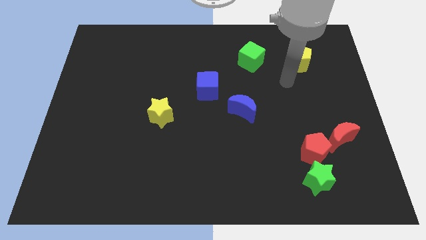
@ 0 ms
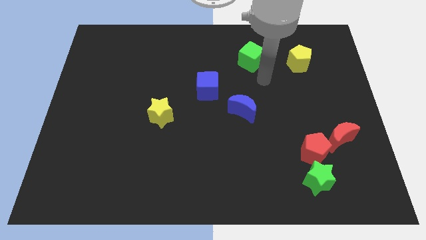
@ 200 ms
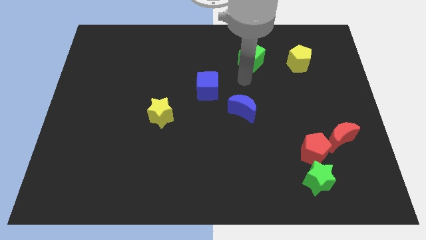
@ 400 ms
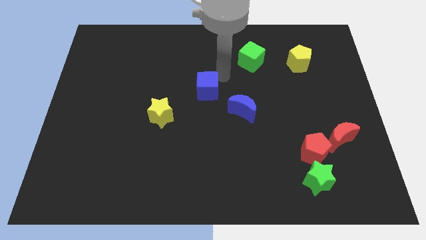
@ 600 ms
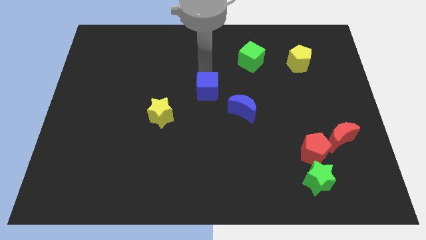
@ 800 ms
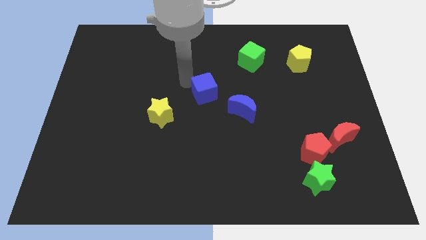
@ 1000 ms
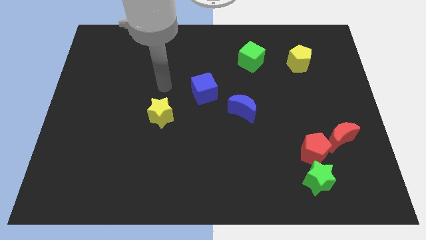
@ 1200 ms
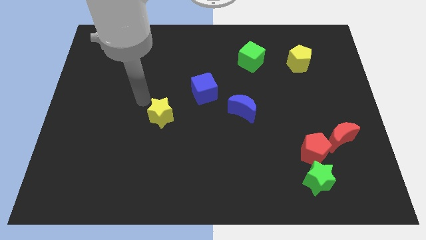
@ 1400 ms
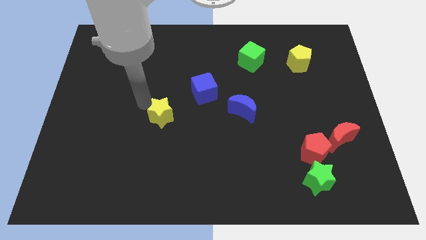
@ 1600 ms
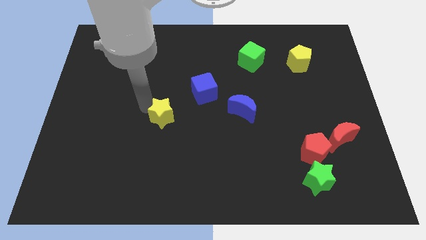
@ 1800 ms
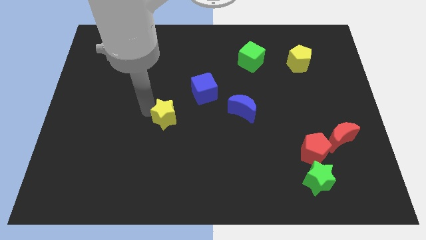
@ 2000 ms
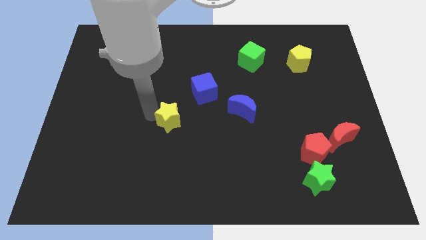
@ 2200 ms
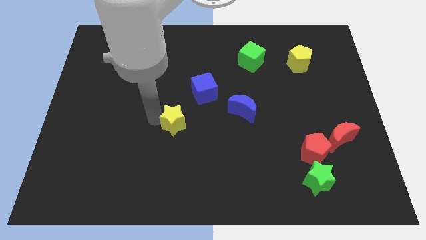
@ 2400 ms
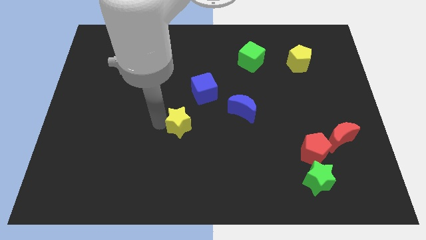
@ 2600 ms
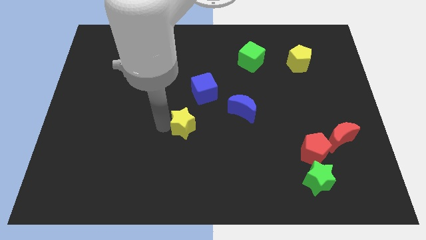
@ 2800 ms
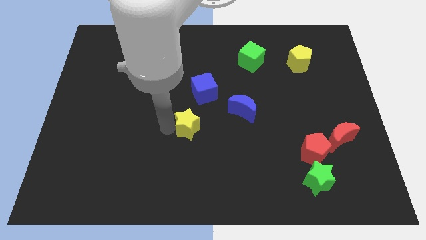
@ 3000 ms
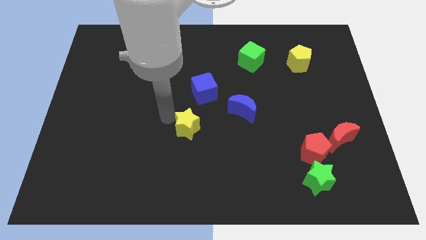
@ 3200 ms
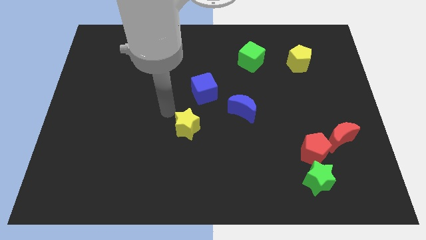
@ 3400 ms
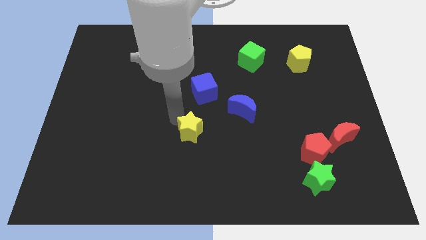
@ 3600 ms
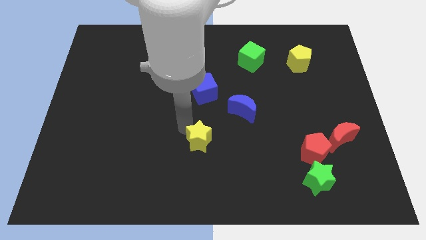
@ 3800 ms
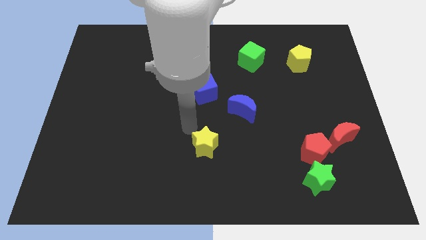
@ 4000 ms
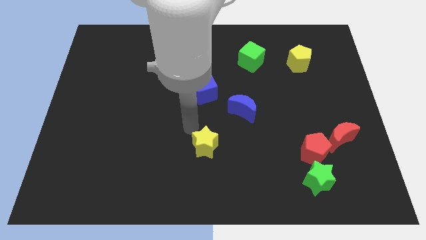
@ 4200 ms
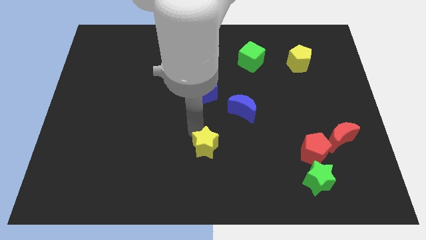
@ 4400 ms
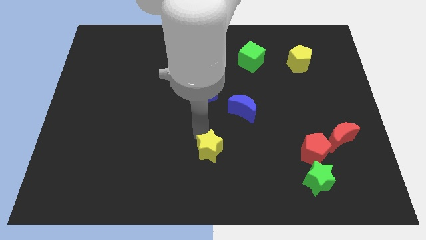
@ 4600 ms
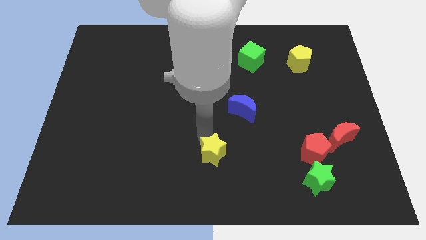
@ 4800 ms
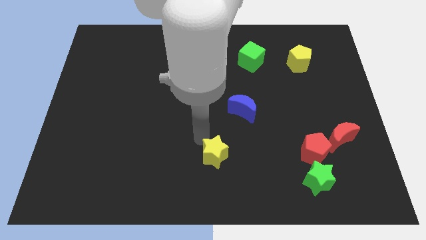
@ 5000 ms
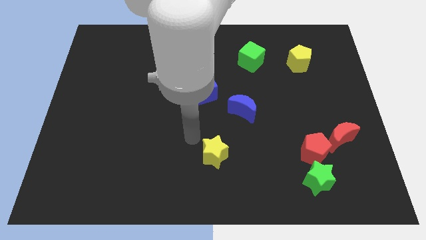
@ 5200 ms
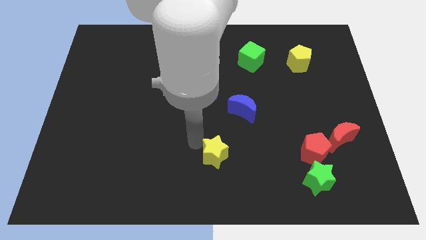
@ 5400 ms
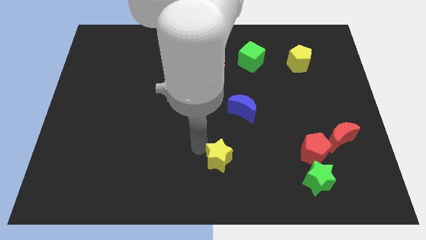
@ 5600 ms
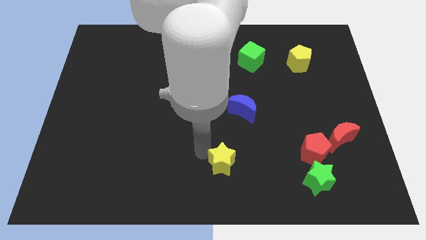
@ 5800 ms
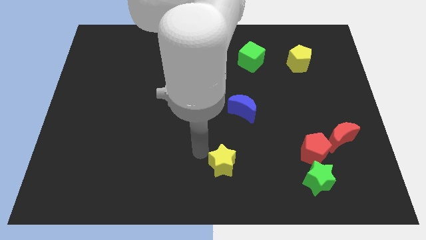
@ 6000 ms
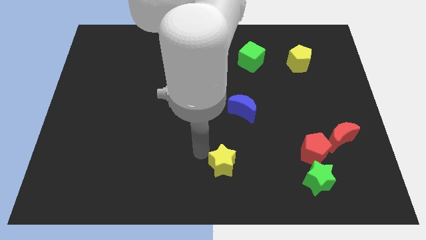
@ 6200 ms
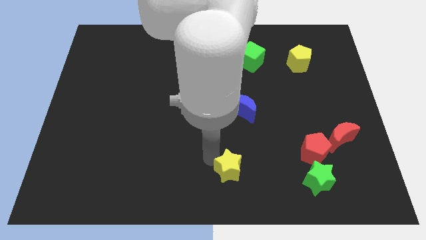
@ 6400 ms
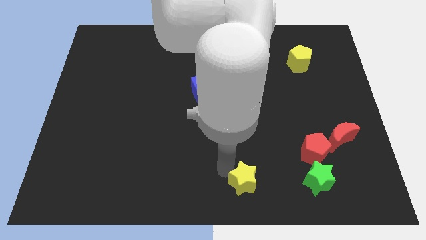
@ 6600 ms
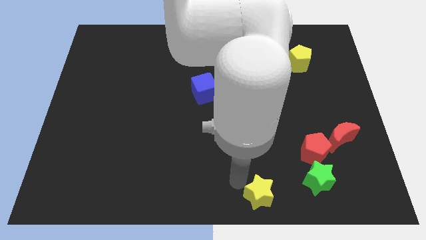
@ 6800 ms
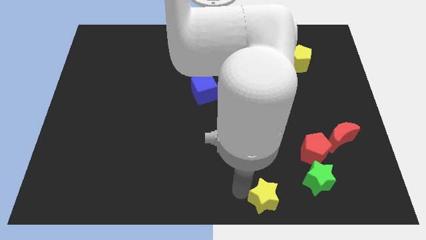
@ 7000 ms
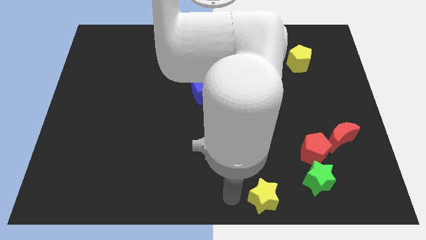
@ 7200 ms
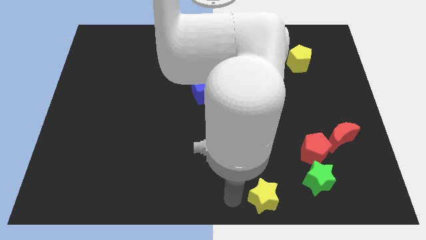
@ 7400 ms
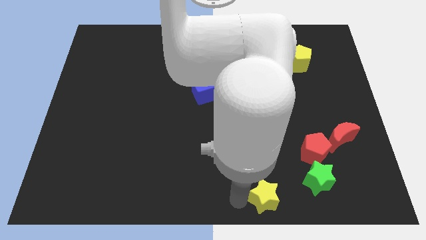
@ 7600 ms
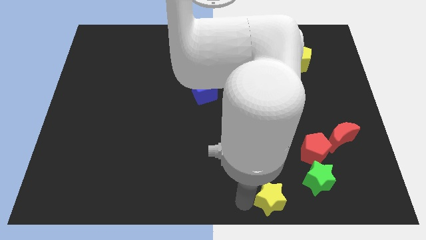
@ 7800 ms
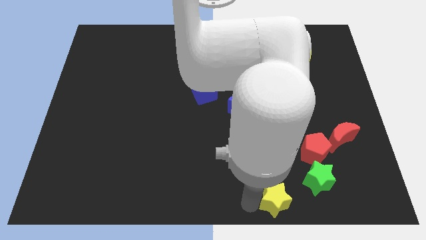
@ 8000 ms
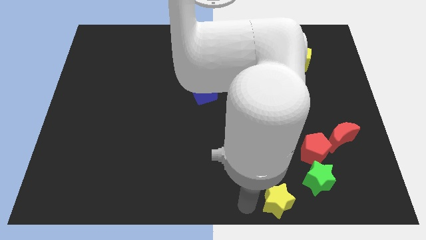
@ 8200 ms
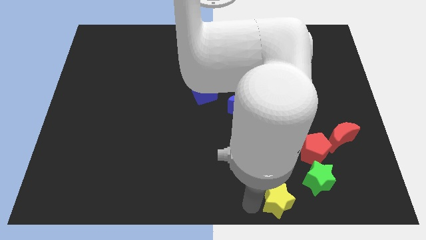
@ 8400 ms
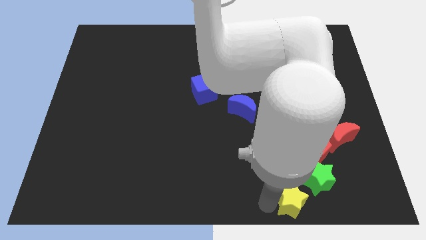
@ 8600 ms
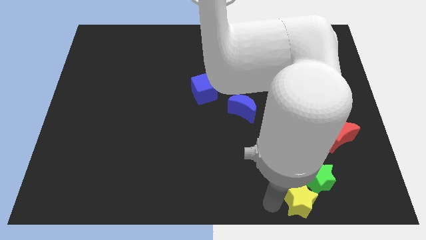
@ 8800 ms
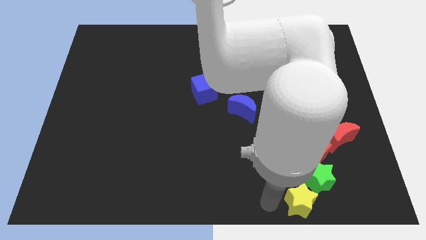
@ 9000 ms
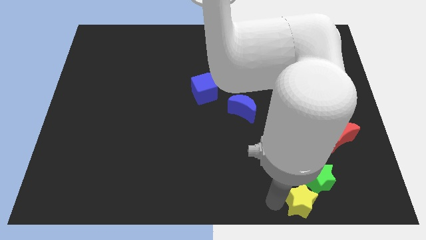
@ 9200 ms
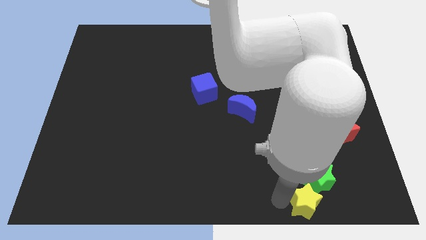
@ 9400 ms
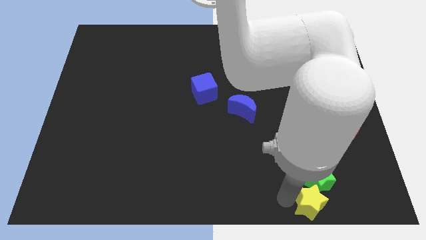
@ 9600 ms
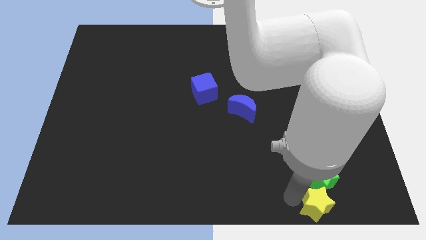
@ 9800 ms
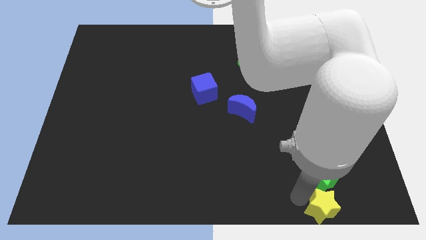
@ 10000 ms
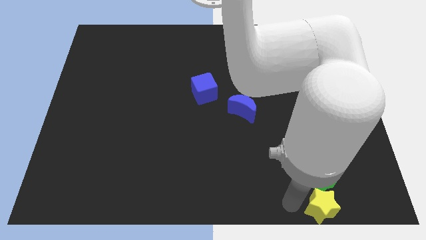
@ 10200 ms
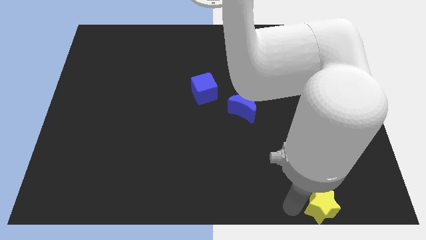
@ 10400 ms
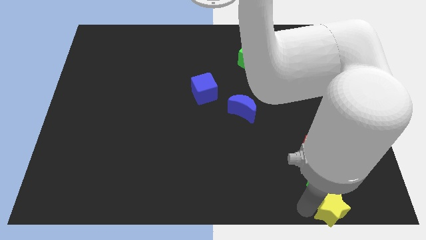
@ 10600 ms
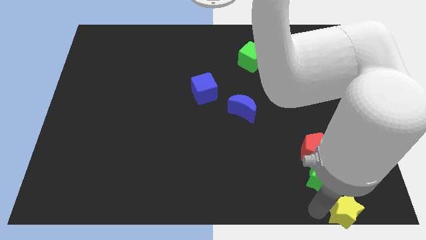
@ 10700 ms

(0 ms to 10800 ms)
put the yellow star to the bottom right corner

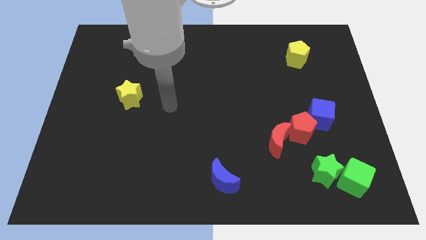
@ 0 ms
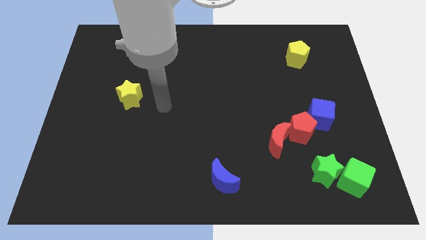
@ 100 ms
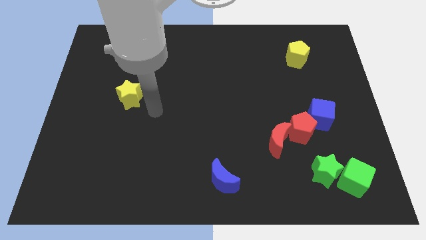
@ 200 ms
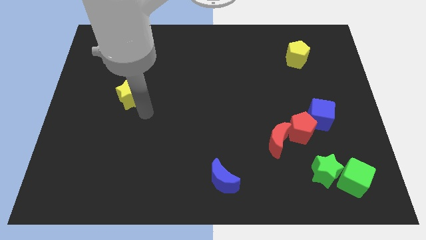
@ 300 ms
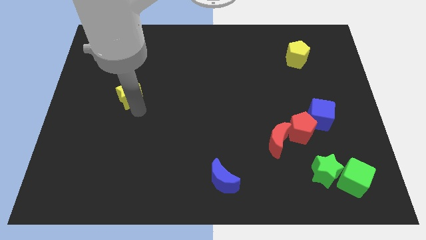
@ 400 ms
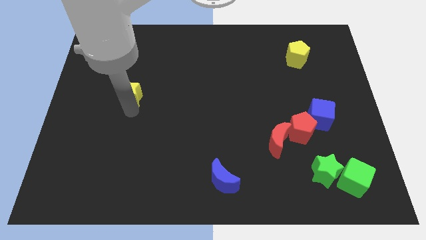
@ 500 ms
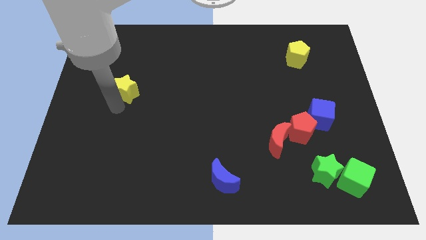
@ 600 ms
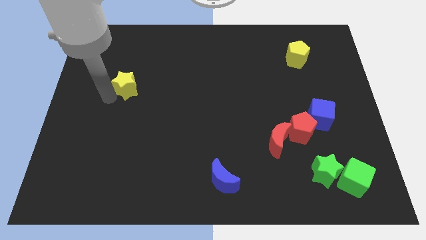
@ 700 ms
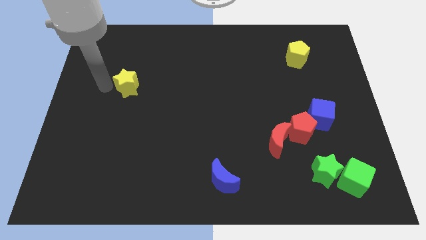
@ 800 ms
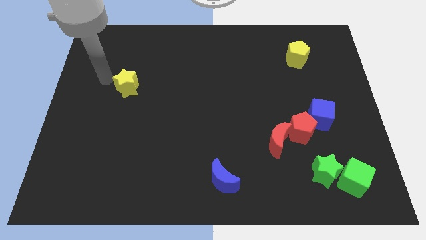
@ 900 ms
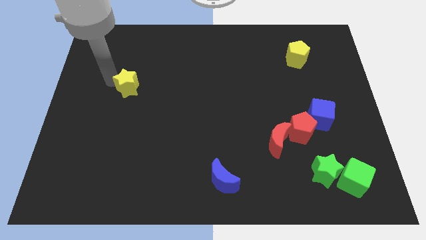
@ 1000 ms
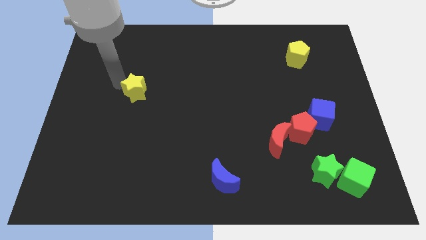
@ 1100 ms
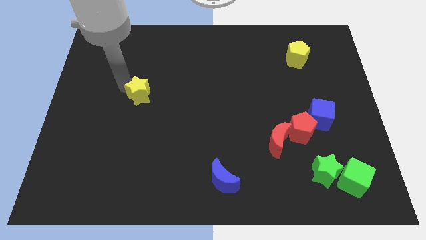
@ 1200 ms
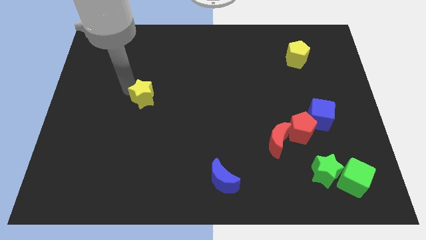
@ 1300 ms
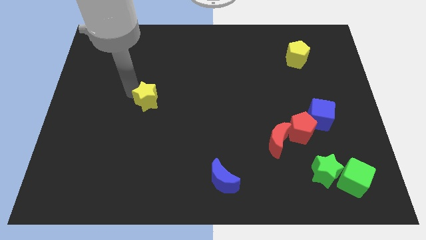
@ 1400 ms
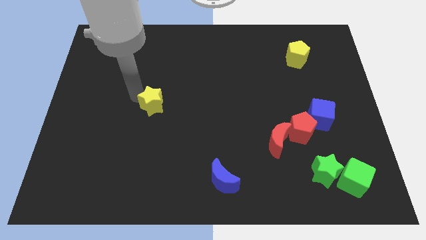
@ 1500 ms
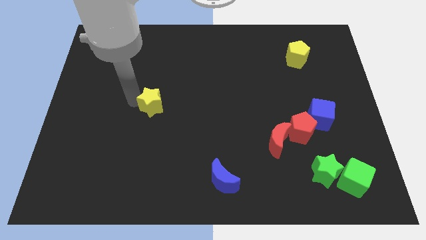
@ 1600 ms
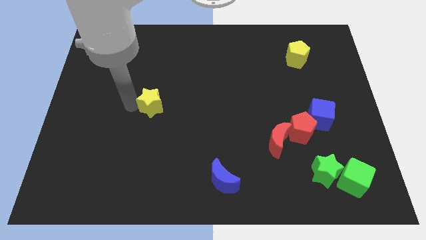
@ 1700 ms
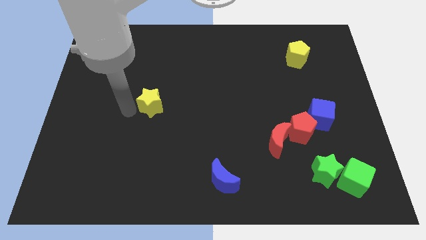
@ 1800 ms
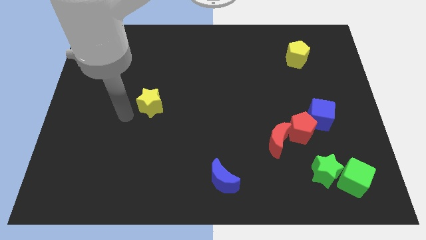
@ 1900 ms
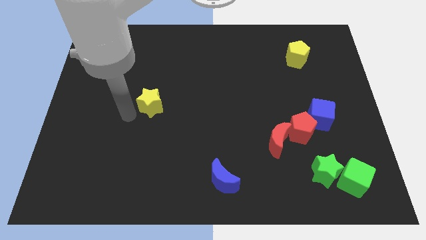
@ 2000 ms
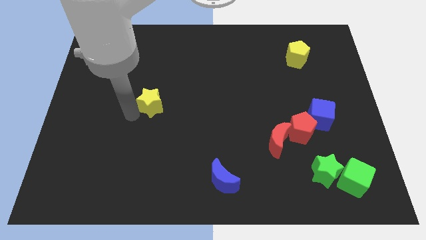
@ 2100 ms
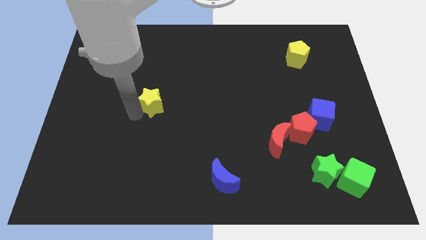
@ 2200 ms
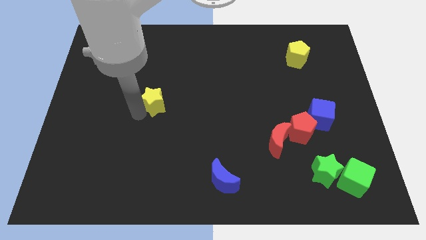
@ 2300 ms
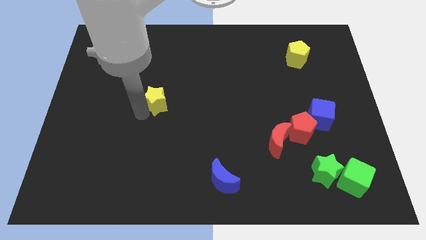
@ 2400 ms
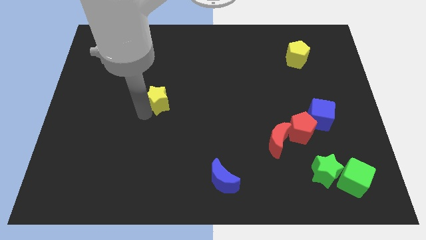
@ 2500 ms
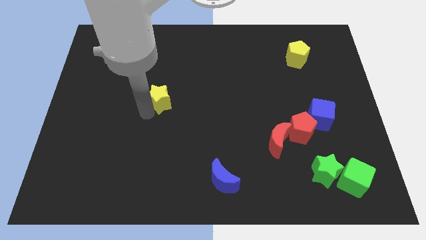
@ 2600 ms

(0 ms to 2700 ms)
move the yellow star to the middle
